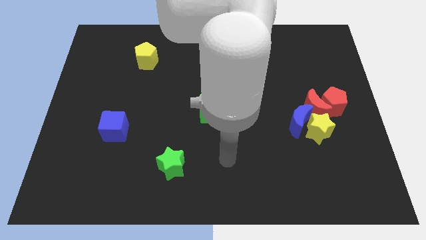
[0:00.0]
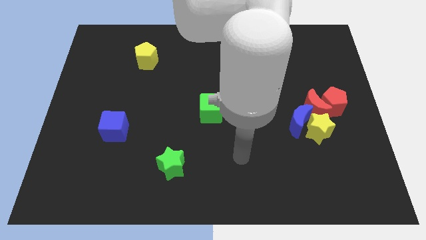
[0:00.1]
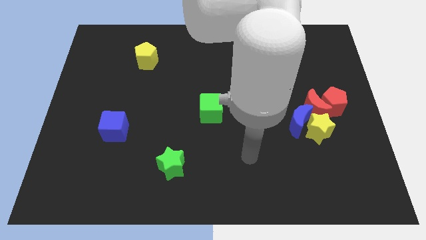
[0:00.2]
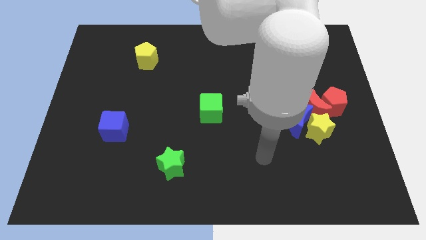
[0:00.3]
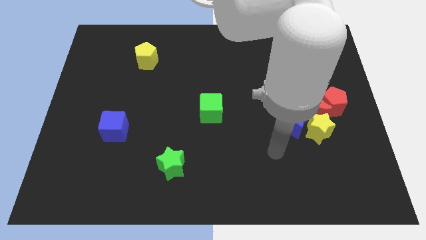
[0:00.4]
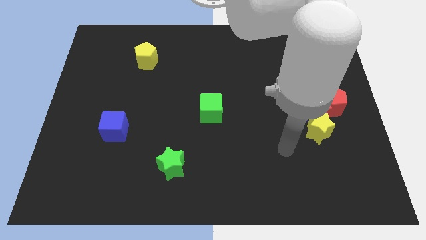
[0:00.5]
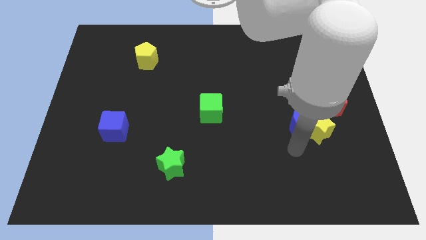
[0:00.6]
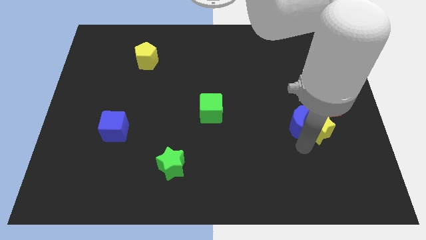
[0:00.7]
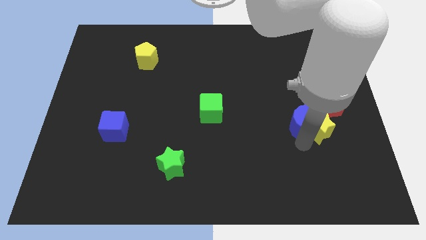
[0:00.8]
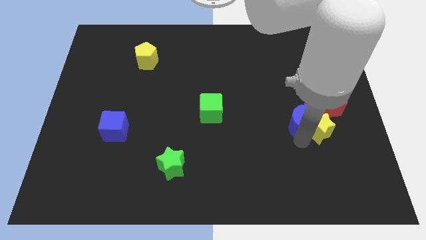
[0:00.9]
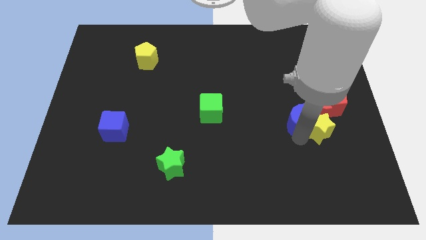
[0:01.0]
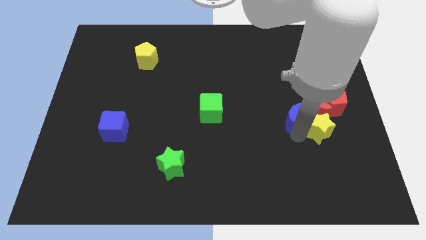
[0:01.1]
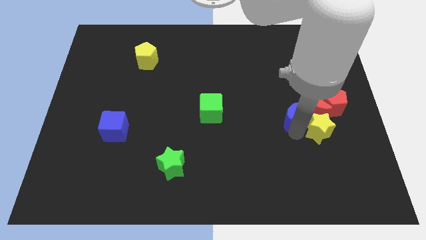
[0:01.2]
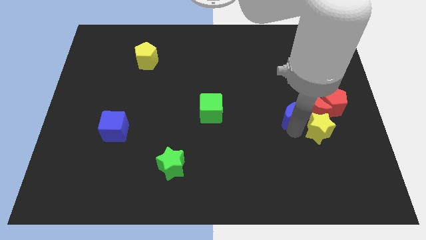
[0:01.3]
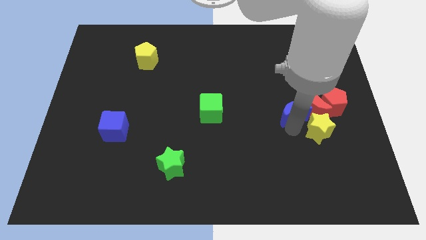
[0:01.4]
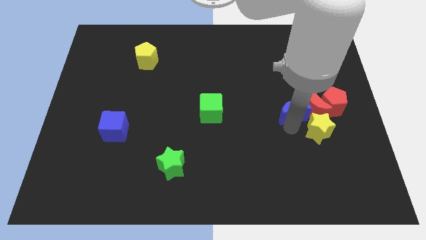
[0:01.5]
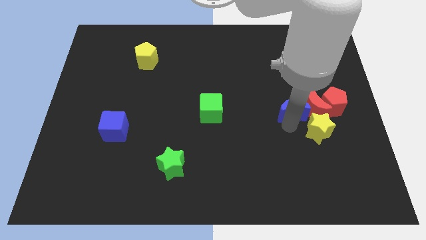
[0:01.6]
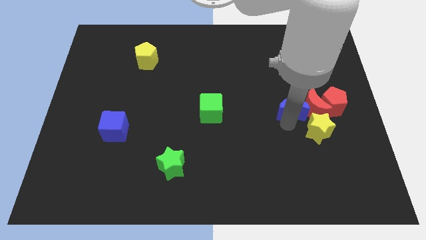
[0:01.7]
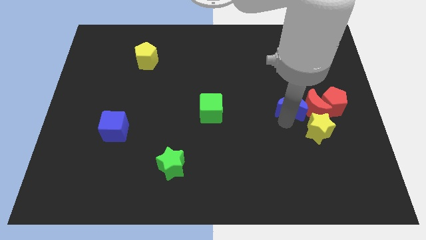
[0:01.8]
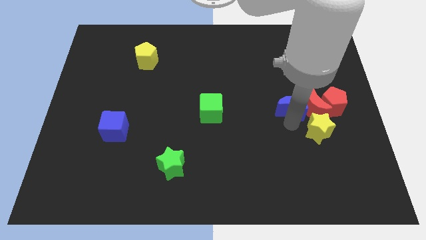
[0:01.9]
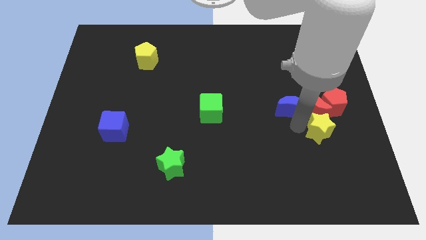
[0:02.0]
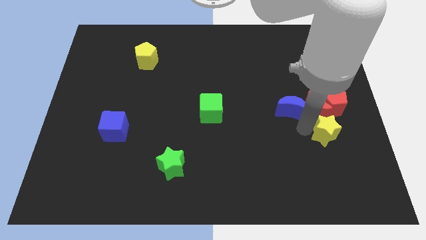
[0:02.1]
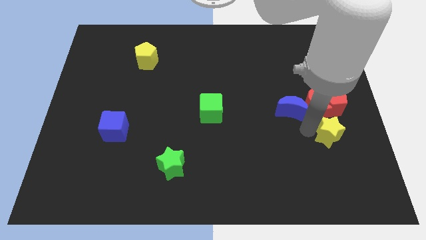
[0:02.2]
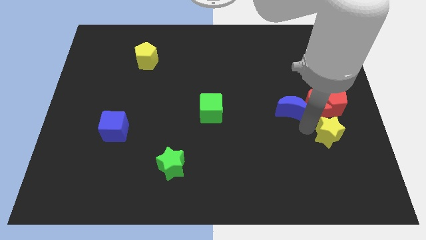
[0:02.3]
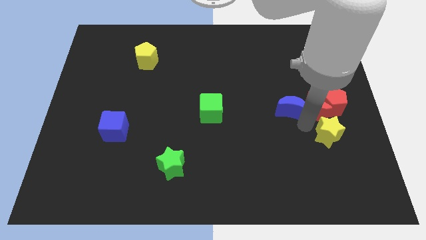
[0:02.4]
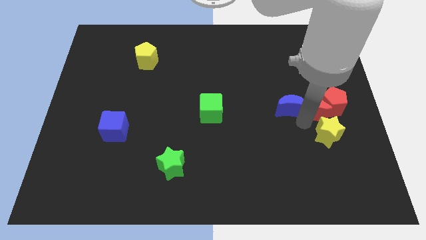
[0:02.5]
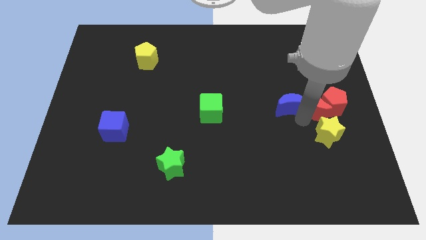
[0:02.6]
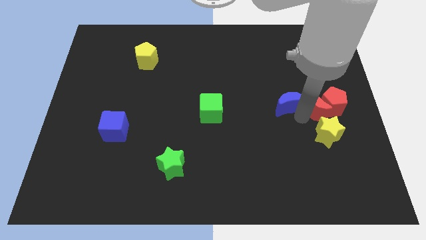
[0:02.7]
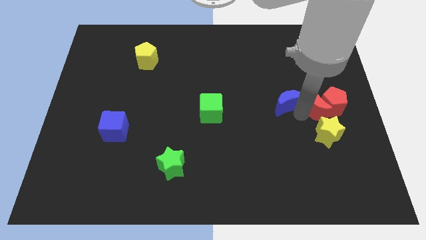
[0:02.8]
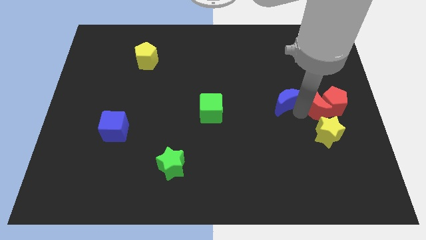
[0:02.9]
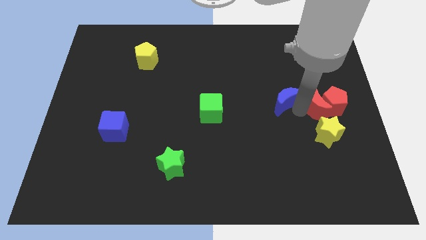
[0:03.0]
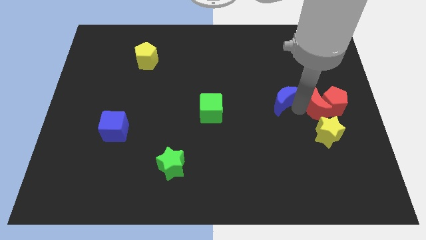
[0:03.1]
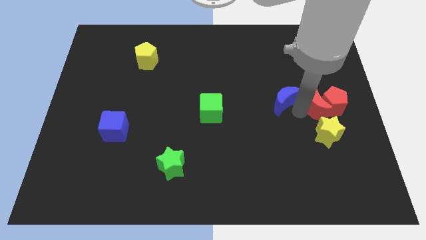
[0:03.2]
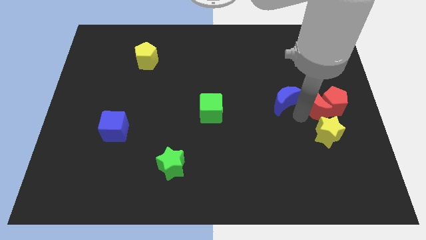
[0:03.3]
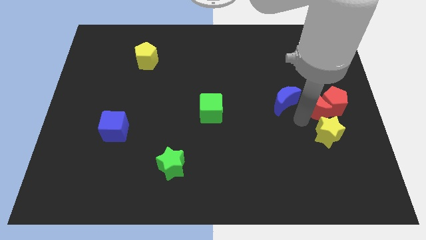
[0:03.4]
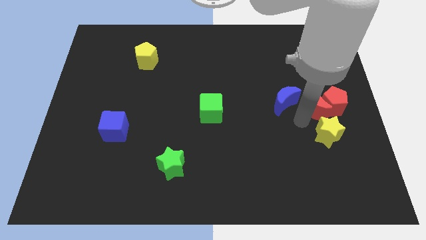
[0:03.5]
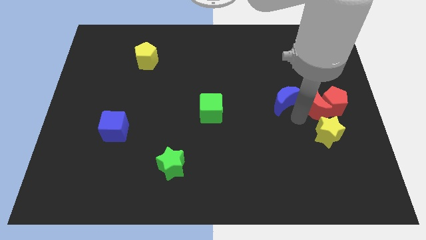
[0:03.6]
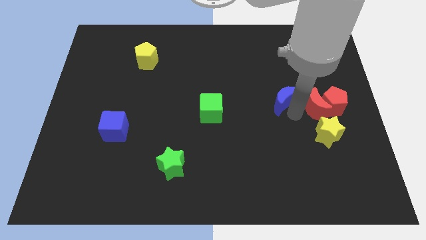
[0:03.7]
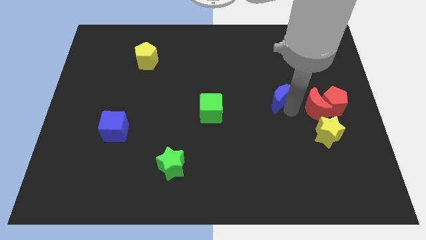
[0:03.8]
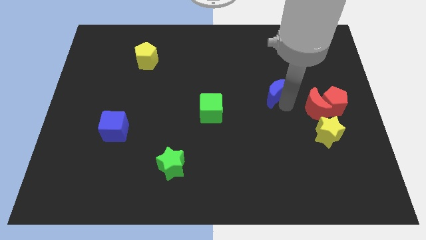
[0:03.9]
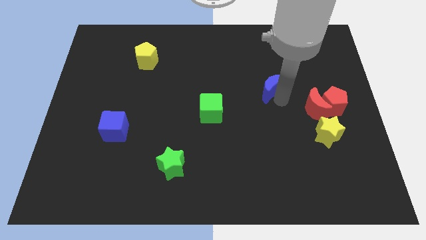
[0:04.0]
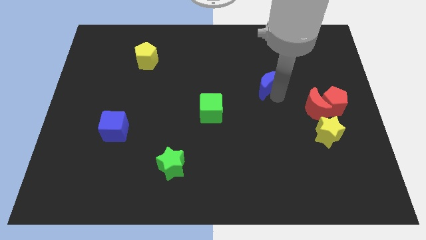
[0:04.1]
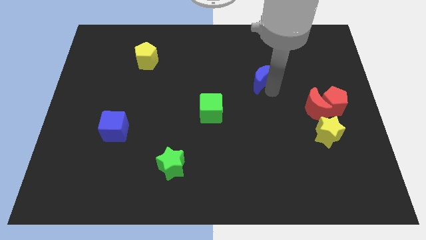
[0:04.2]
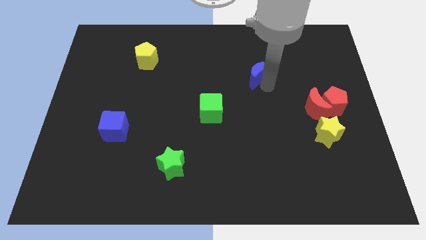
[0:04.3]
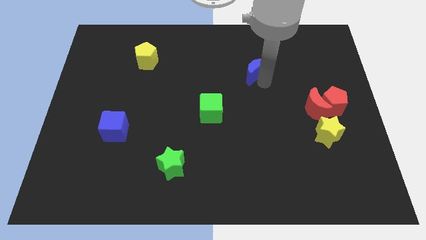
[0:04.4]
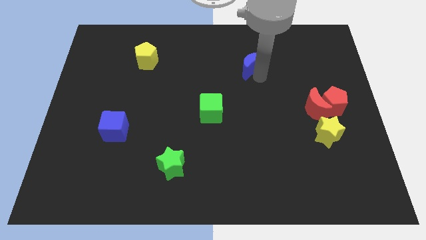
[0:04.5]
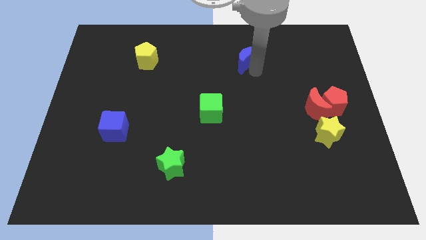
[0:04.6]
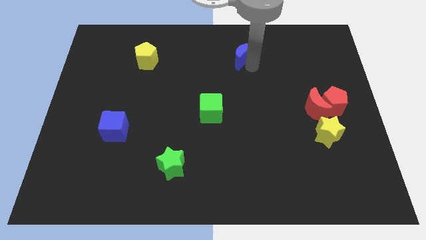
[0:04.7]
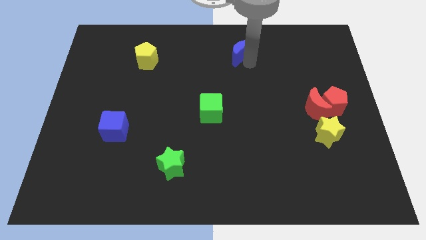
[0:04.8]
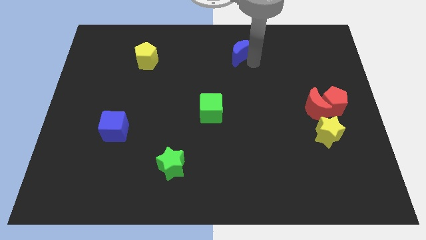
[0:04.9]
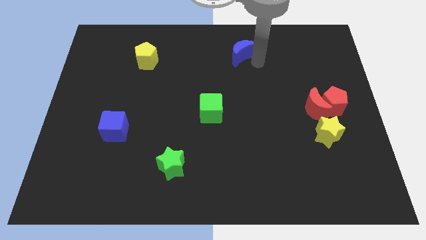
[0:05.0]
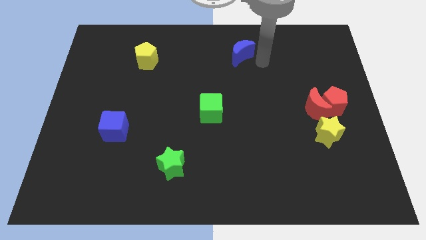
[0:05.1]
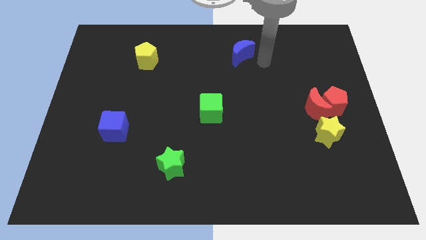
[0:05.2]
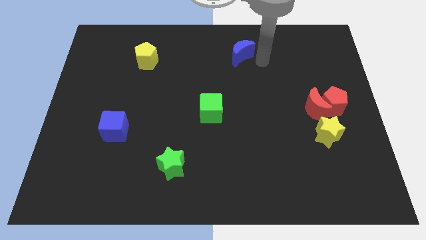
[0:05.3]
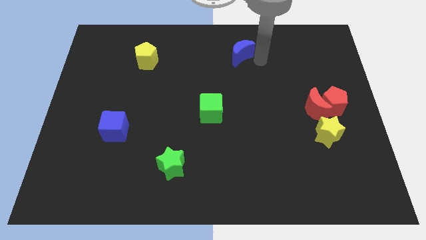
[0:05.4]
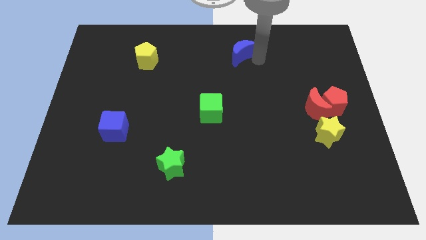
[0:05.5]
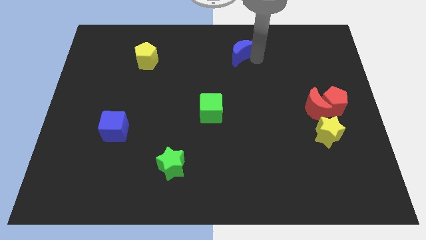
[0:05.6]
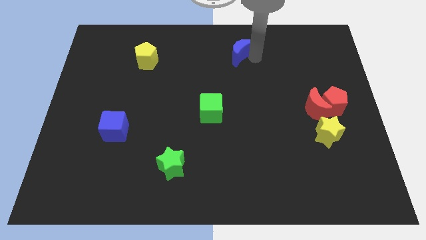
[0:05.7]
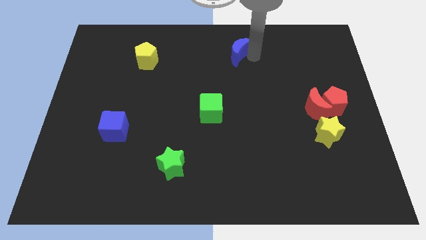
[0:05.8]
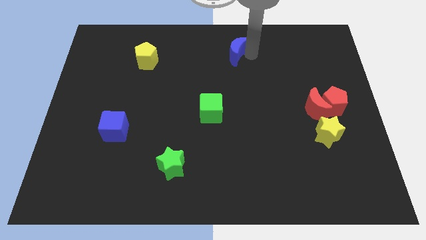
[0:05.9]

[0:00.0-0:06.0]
push the blue moon to the towards your base
